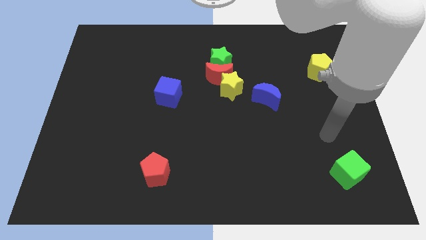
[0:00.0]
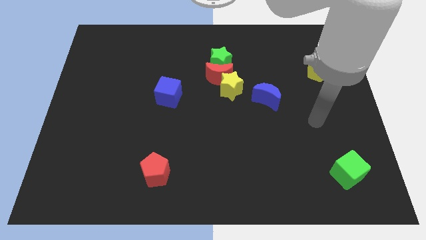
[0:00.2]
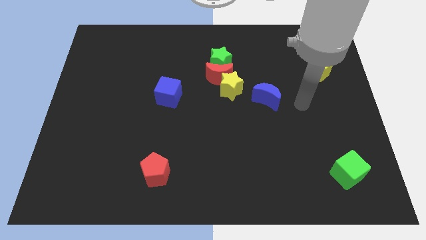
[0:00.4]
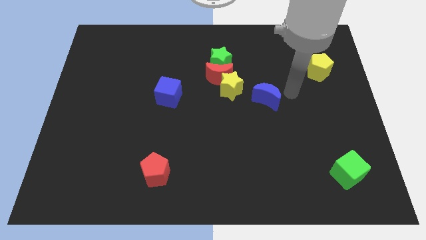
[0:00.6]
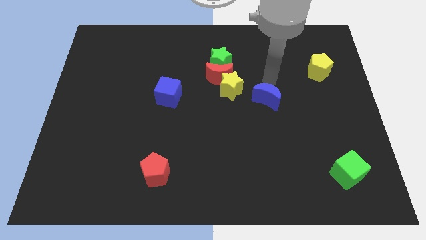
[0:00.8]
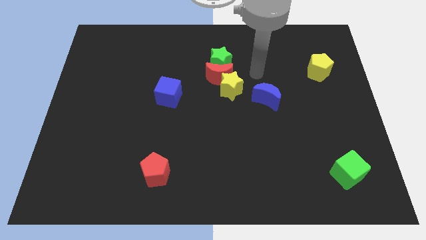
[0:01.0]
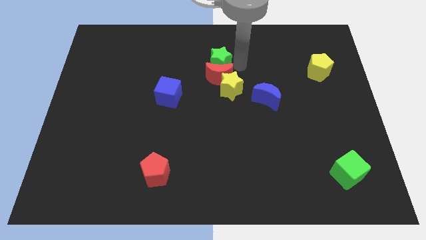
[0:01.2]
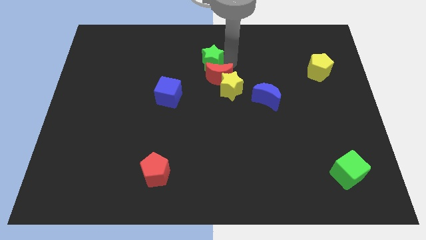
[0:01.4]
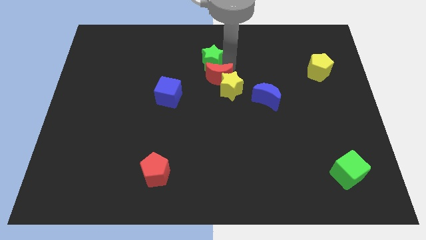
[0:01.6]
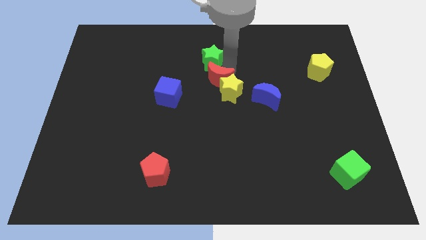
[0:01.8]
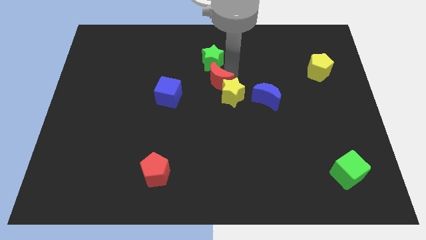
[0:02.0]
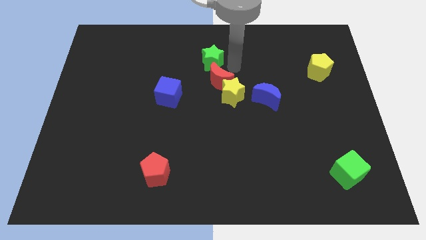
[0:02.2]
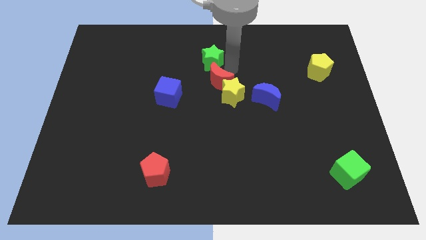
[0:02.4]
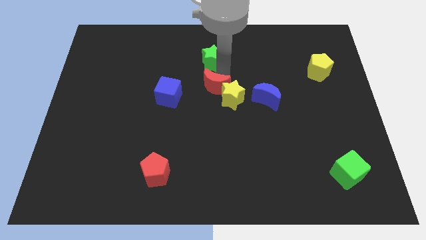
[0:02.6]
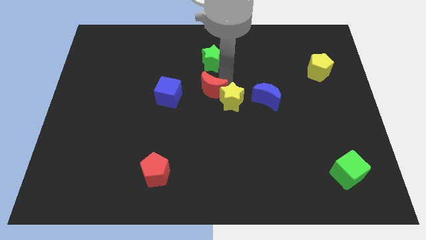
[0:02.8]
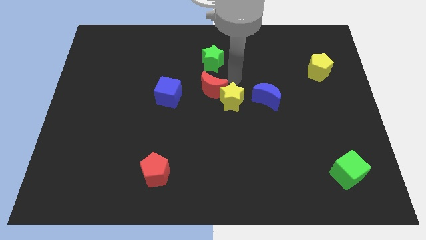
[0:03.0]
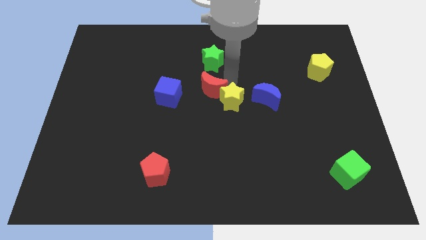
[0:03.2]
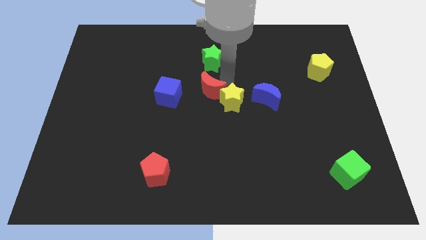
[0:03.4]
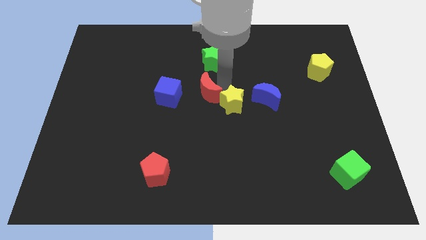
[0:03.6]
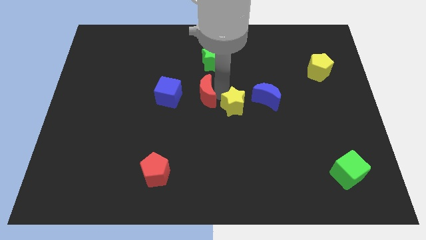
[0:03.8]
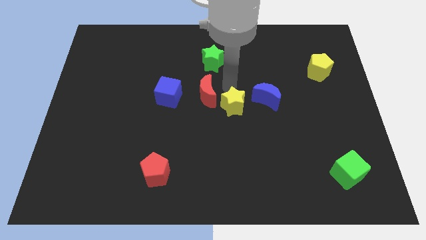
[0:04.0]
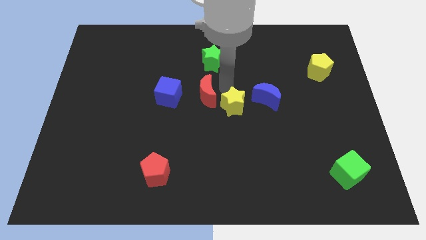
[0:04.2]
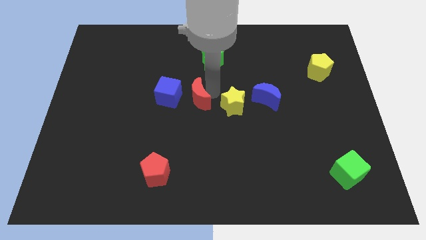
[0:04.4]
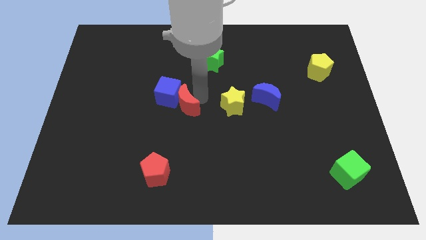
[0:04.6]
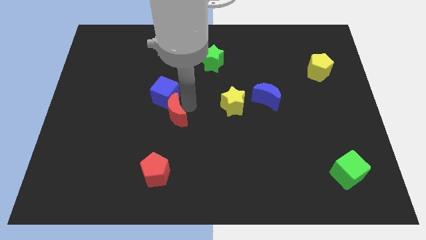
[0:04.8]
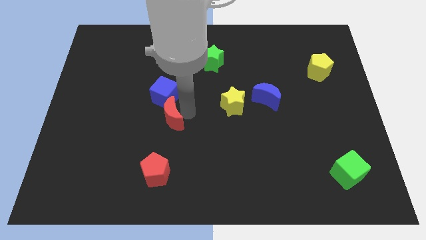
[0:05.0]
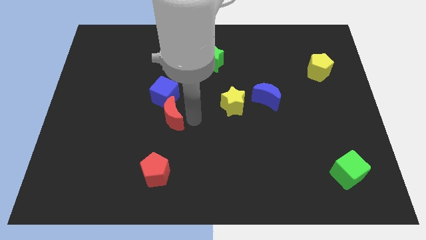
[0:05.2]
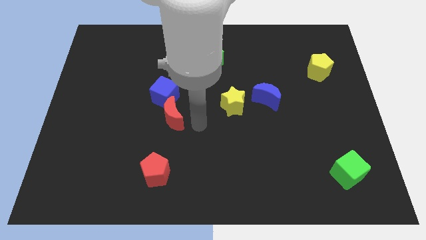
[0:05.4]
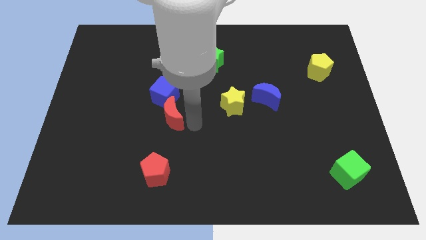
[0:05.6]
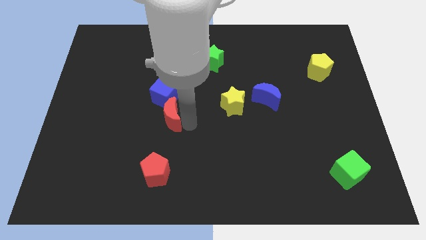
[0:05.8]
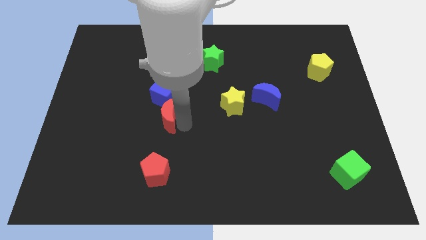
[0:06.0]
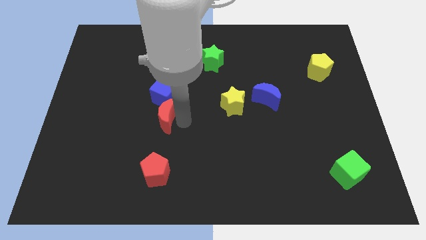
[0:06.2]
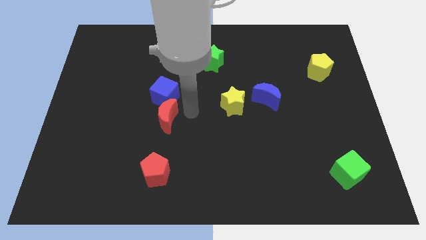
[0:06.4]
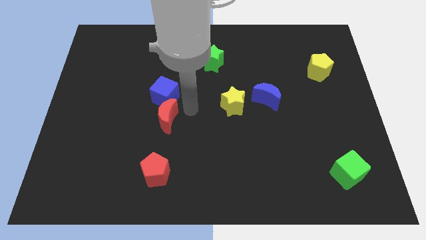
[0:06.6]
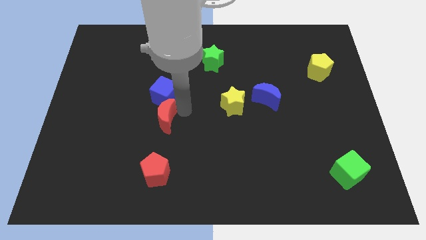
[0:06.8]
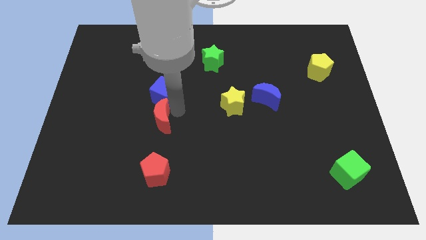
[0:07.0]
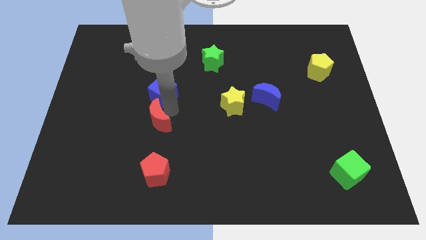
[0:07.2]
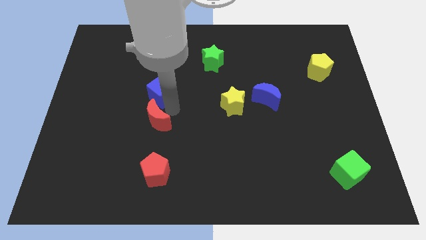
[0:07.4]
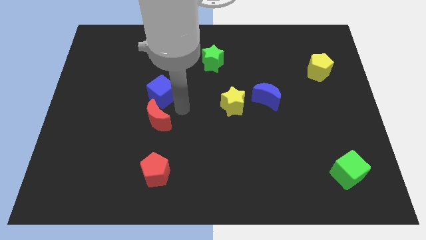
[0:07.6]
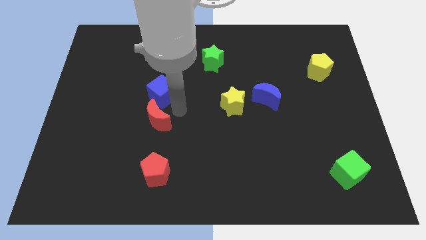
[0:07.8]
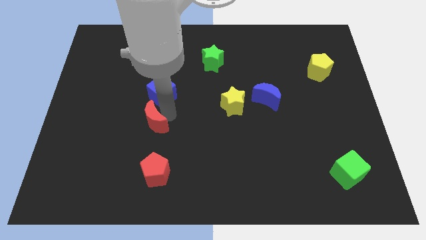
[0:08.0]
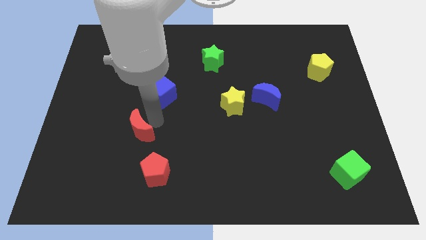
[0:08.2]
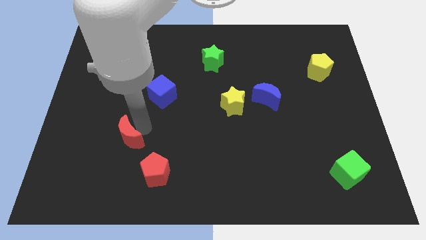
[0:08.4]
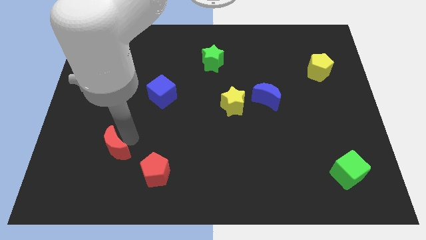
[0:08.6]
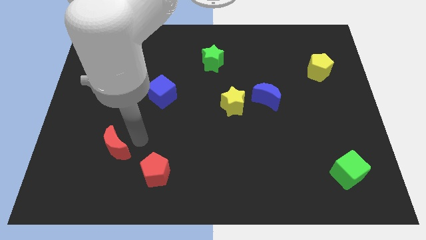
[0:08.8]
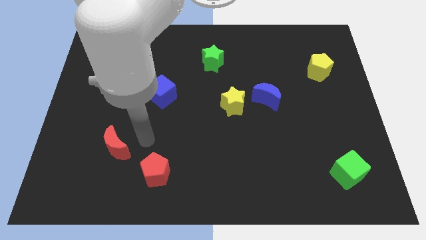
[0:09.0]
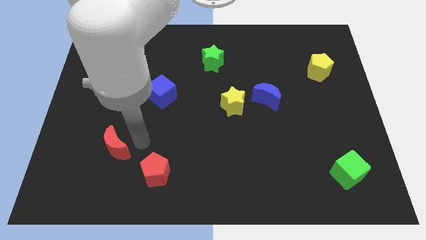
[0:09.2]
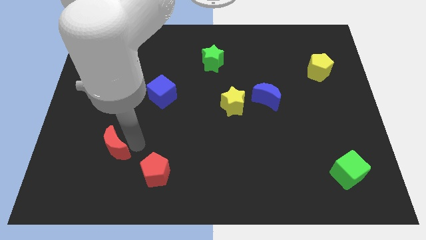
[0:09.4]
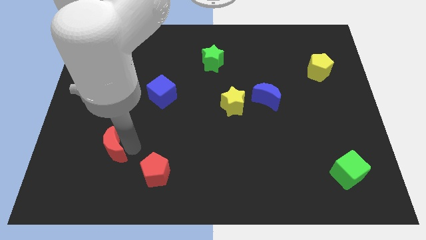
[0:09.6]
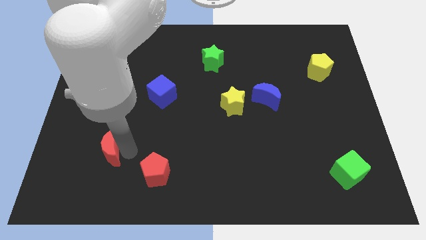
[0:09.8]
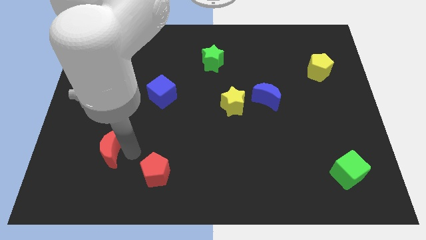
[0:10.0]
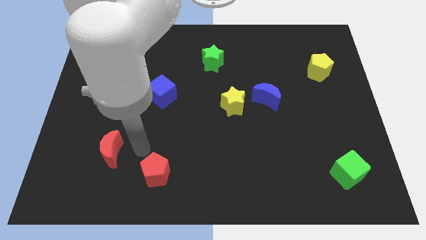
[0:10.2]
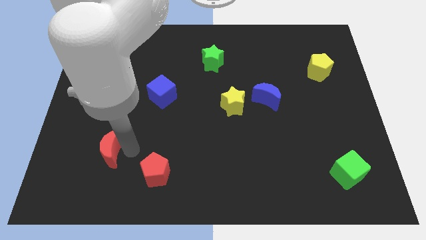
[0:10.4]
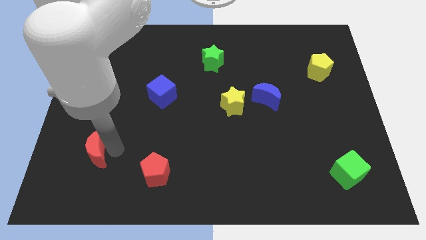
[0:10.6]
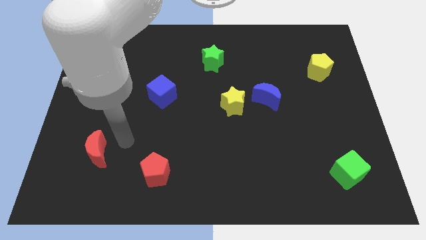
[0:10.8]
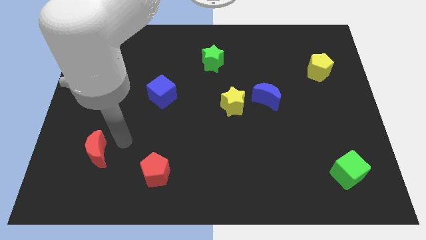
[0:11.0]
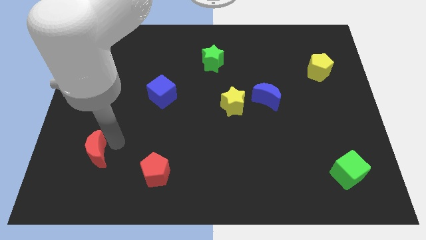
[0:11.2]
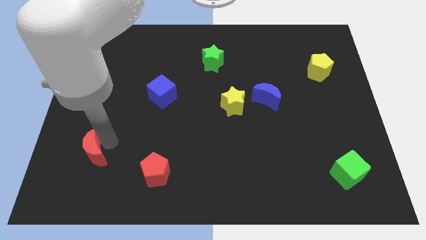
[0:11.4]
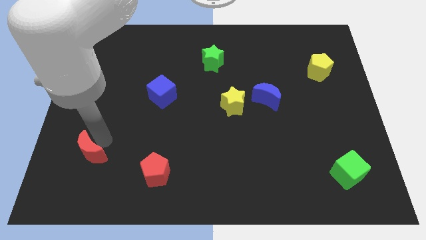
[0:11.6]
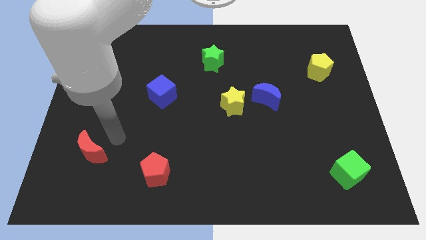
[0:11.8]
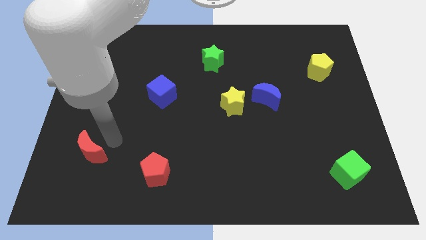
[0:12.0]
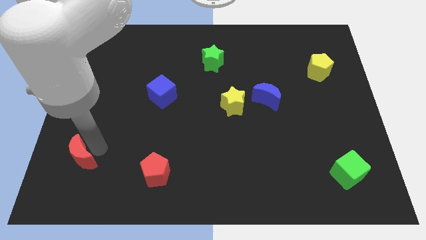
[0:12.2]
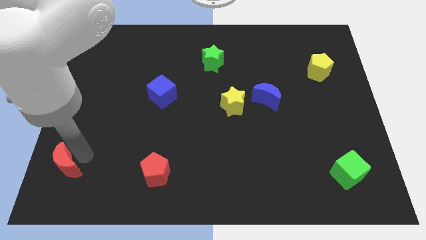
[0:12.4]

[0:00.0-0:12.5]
put the red moon to the lower left corner

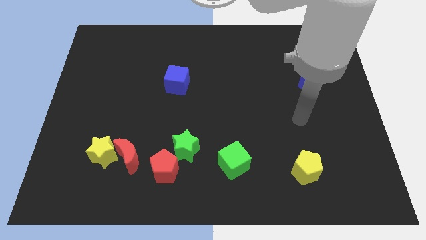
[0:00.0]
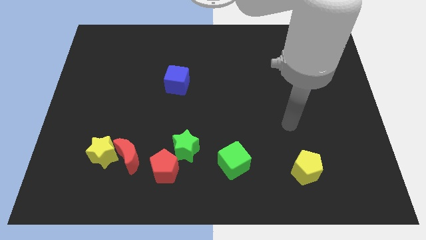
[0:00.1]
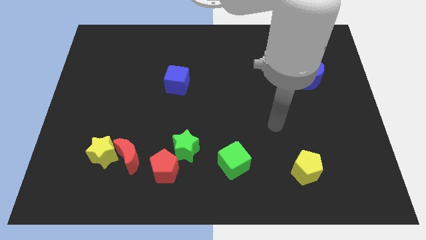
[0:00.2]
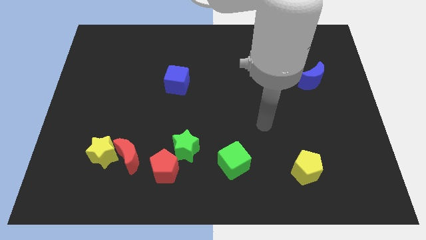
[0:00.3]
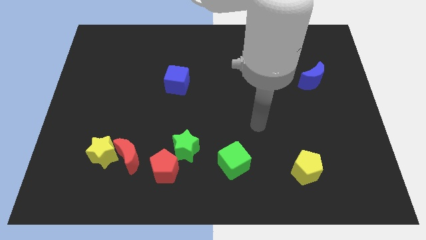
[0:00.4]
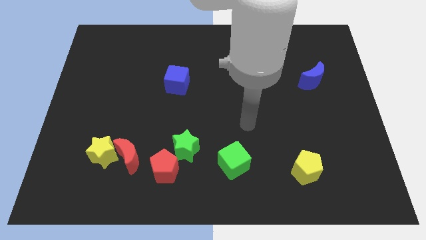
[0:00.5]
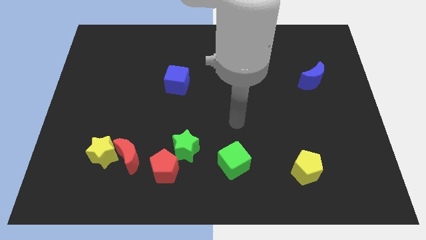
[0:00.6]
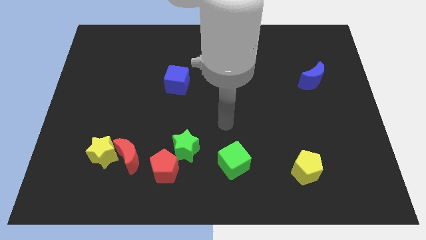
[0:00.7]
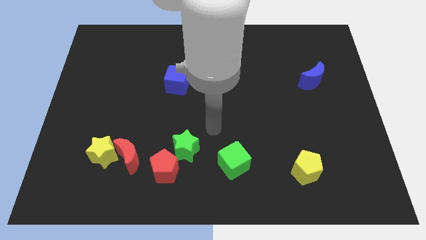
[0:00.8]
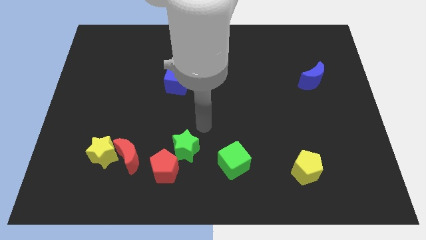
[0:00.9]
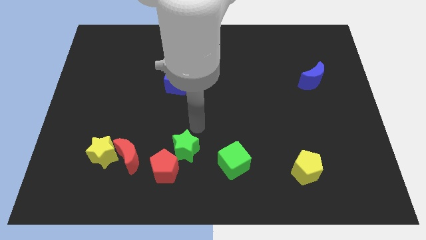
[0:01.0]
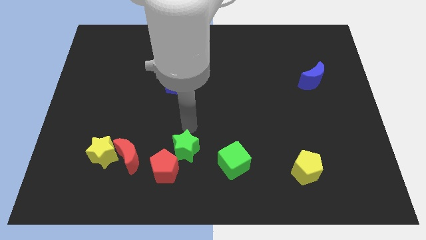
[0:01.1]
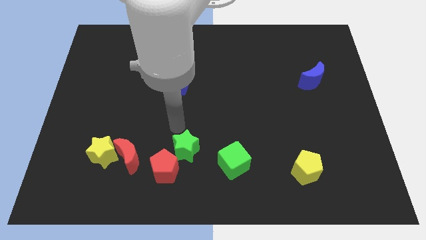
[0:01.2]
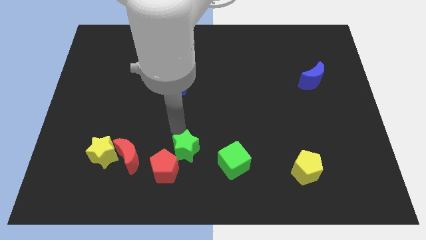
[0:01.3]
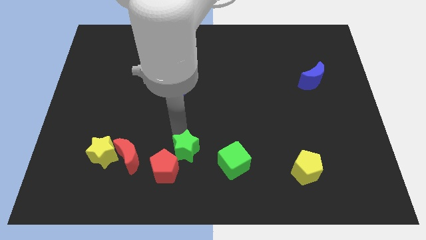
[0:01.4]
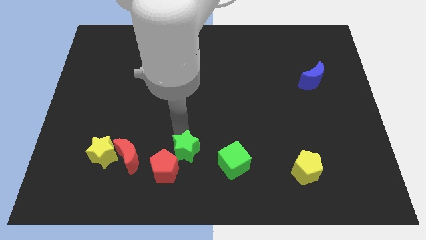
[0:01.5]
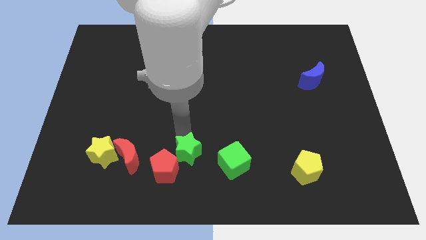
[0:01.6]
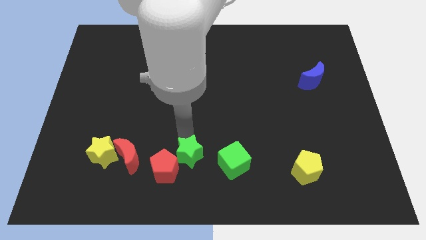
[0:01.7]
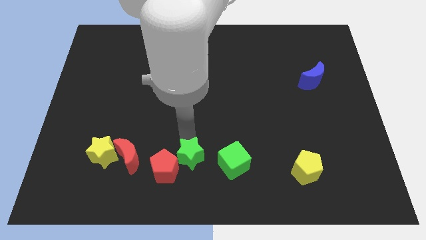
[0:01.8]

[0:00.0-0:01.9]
slide the green star to the bottom side
